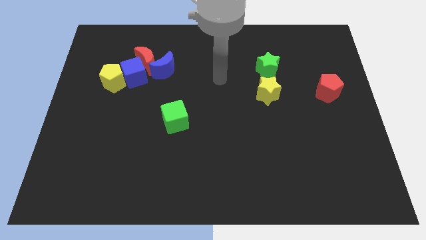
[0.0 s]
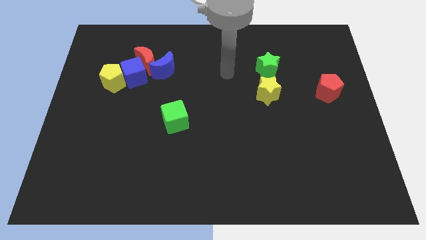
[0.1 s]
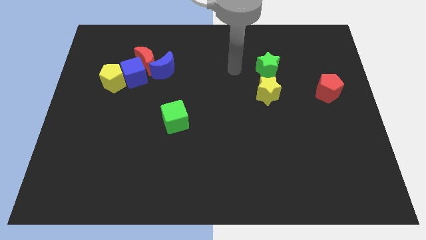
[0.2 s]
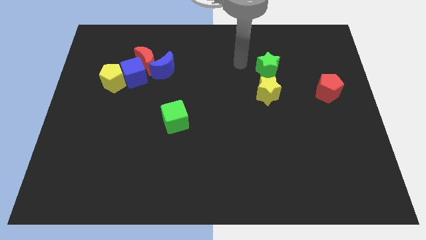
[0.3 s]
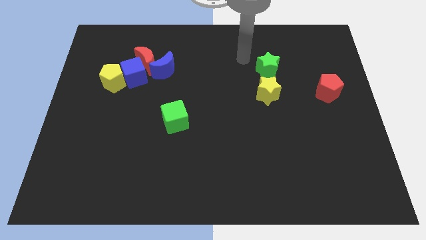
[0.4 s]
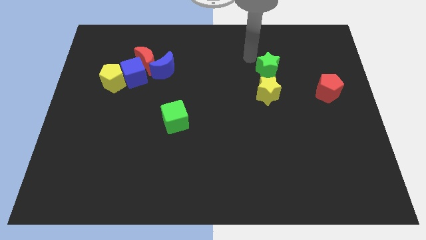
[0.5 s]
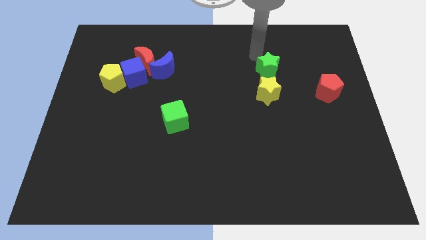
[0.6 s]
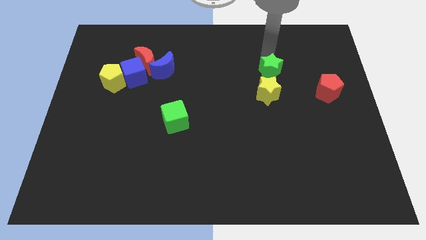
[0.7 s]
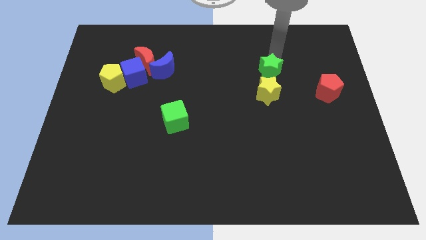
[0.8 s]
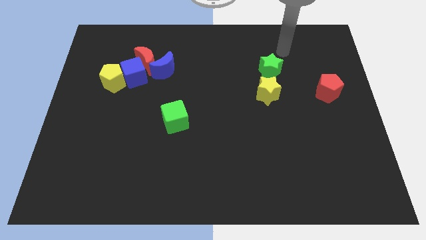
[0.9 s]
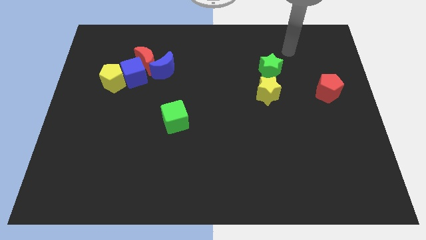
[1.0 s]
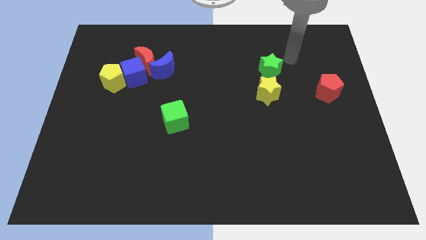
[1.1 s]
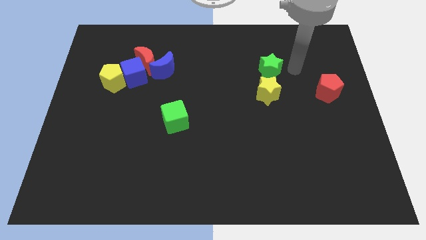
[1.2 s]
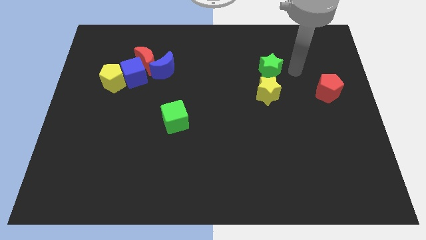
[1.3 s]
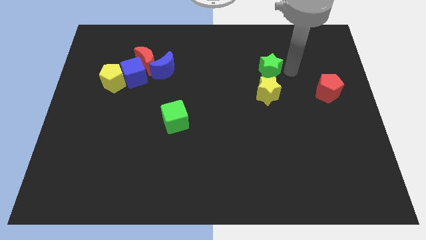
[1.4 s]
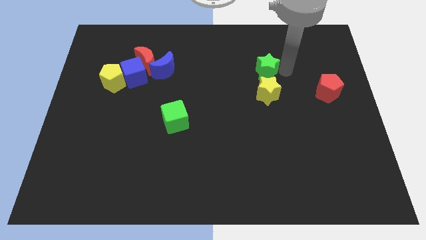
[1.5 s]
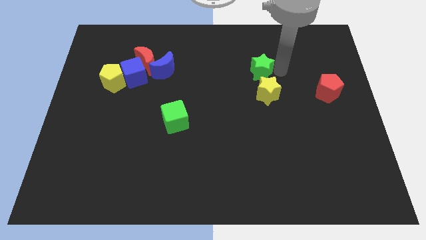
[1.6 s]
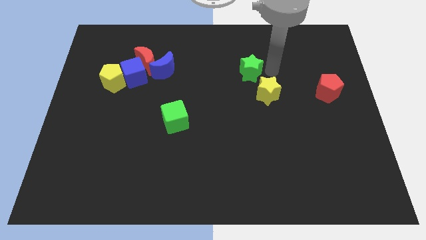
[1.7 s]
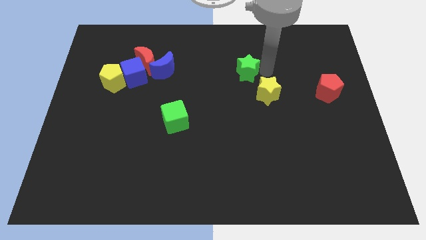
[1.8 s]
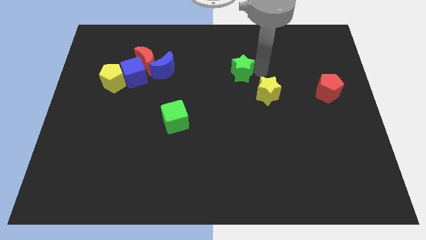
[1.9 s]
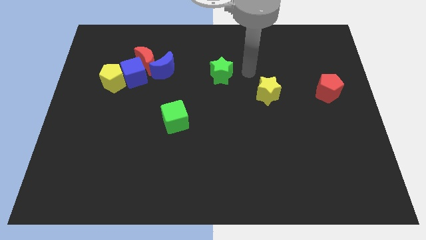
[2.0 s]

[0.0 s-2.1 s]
push the green star a little left

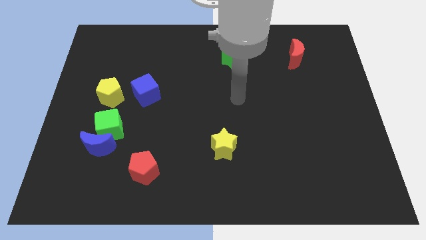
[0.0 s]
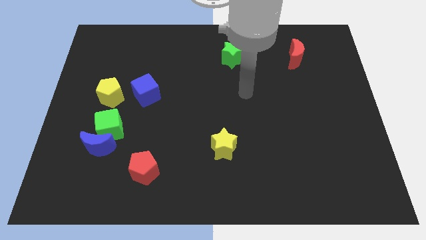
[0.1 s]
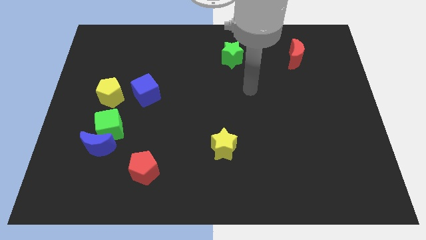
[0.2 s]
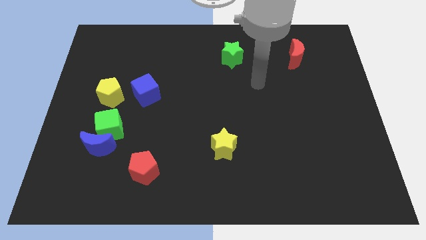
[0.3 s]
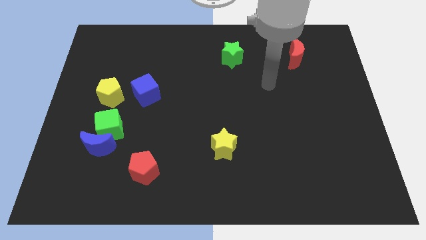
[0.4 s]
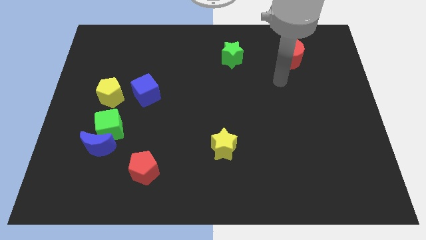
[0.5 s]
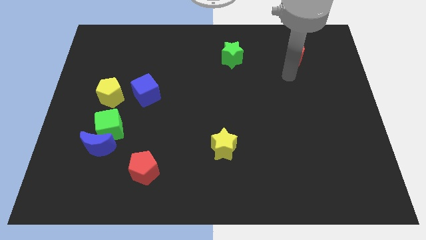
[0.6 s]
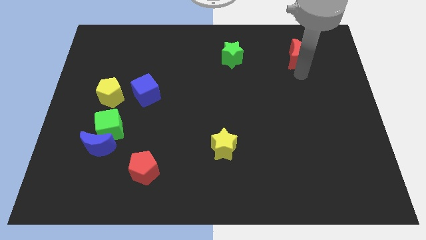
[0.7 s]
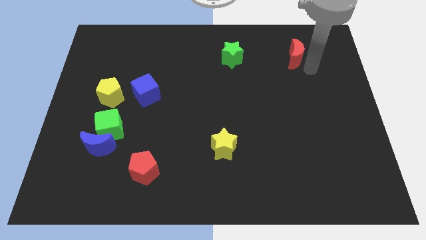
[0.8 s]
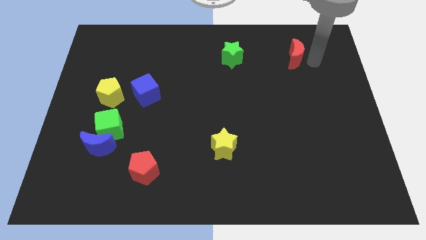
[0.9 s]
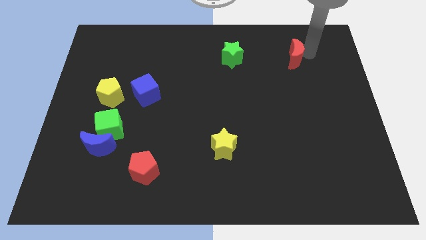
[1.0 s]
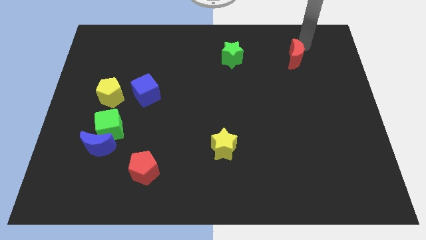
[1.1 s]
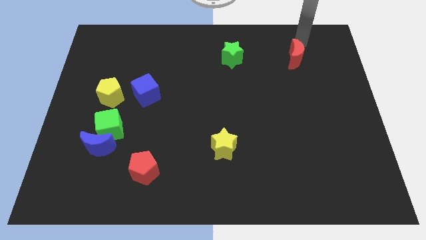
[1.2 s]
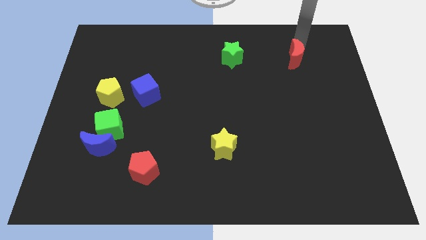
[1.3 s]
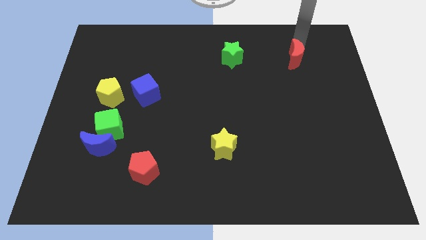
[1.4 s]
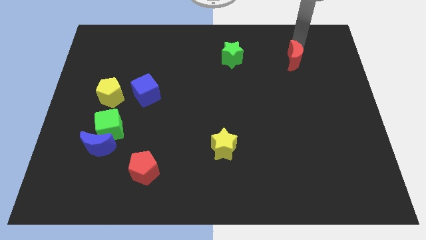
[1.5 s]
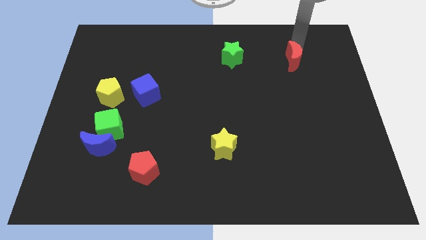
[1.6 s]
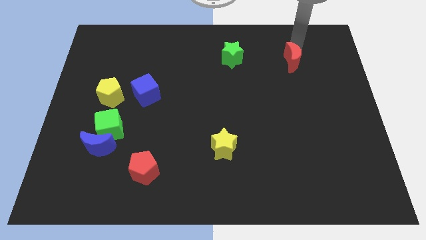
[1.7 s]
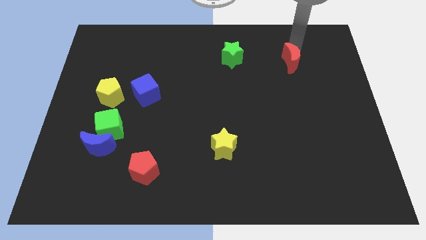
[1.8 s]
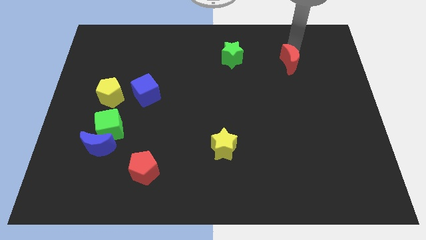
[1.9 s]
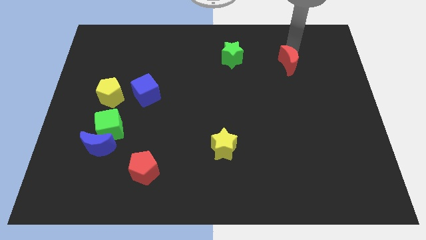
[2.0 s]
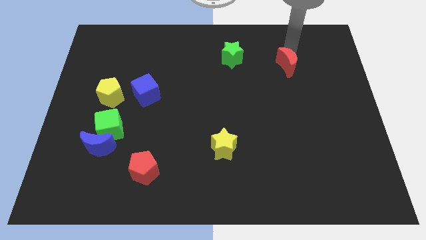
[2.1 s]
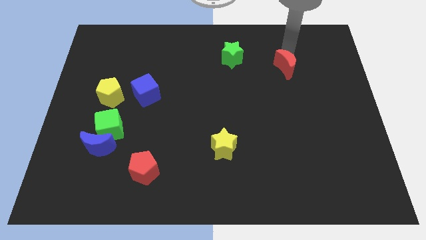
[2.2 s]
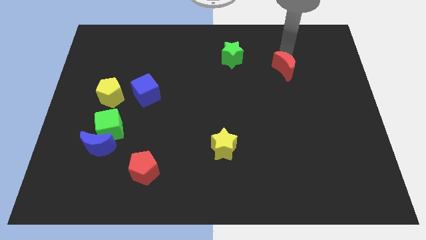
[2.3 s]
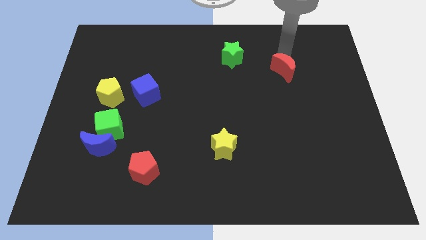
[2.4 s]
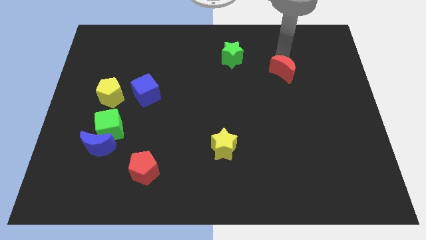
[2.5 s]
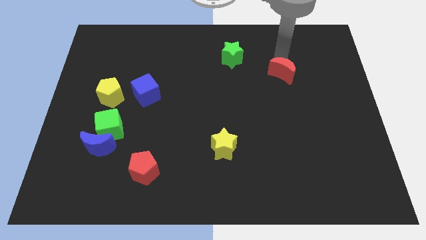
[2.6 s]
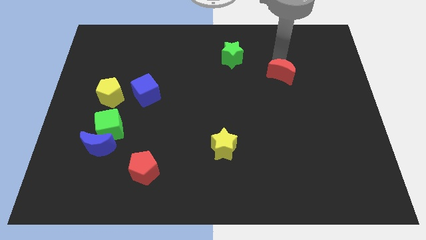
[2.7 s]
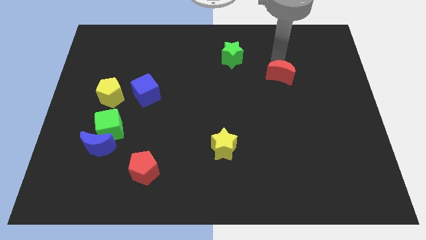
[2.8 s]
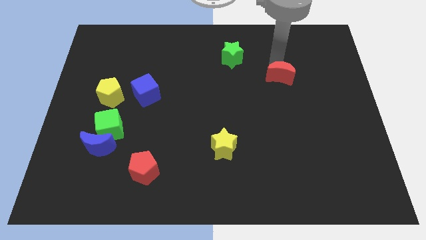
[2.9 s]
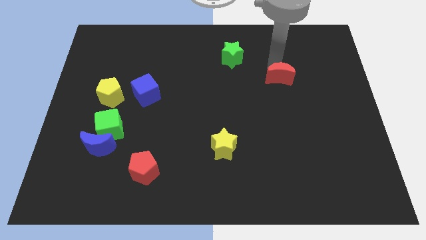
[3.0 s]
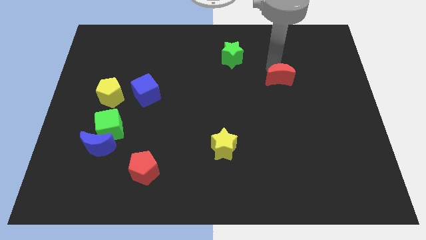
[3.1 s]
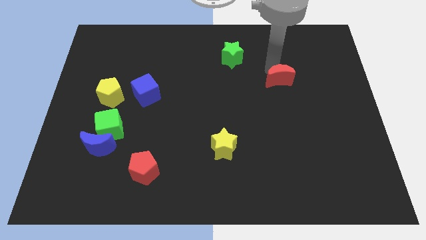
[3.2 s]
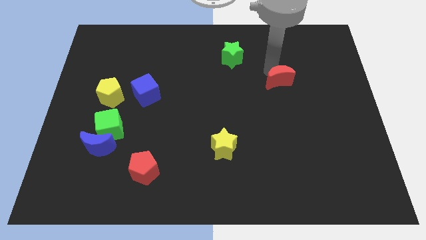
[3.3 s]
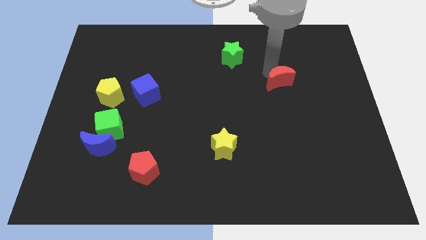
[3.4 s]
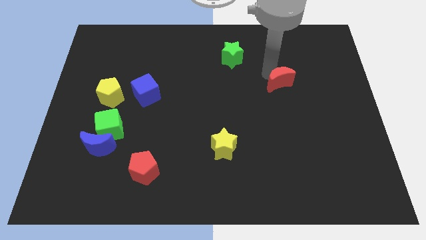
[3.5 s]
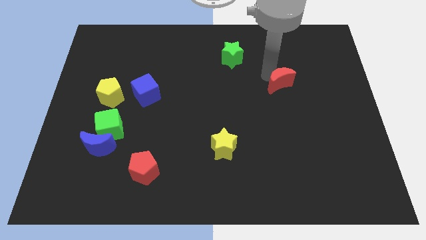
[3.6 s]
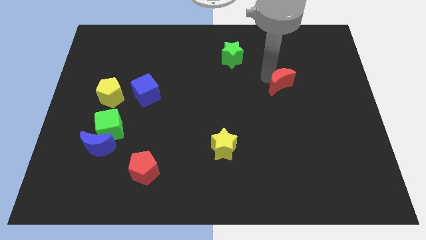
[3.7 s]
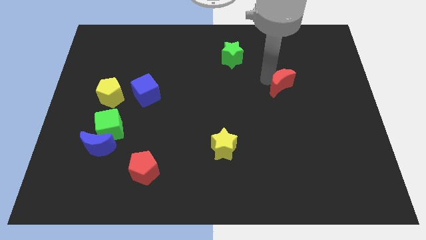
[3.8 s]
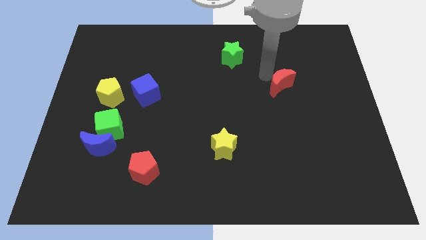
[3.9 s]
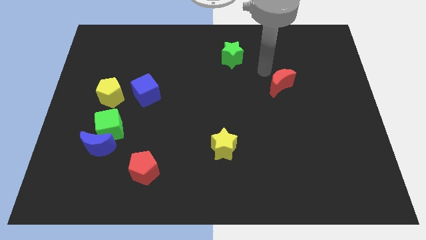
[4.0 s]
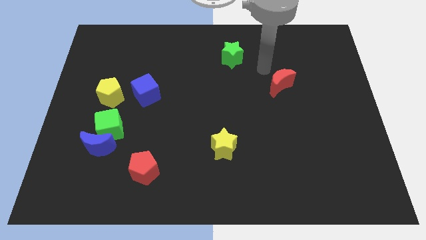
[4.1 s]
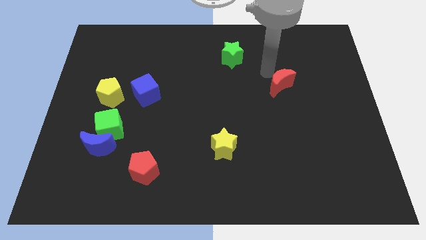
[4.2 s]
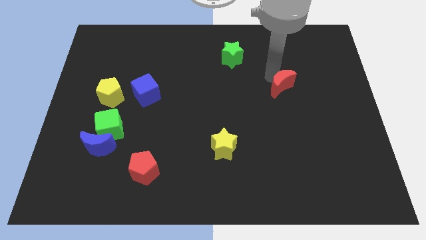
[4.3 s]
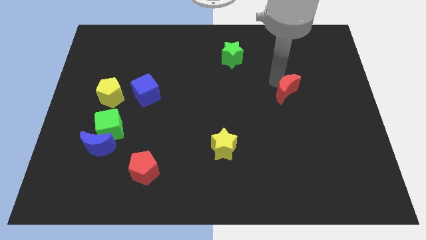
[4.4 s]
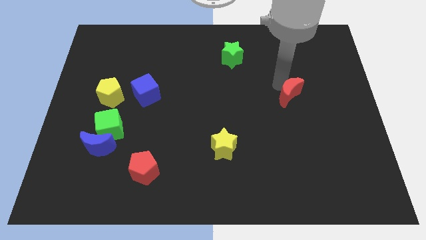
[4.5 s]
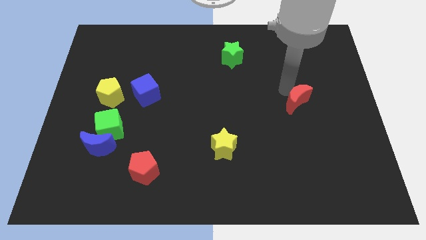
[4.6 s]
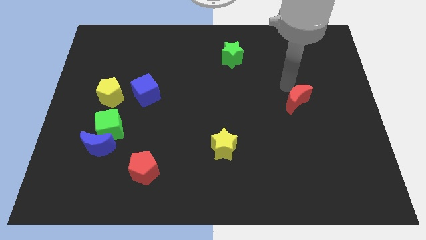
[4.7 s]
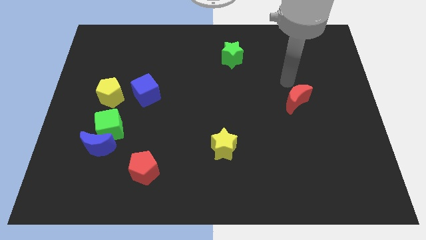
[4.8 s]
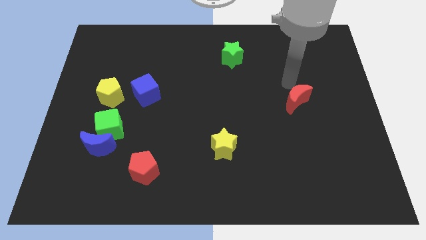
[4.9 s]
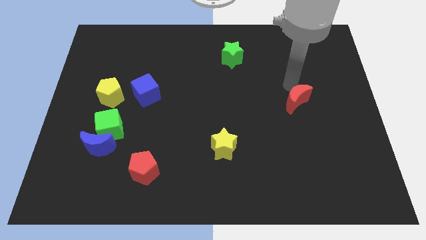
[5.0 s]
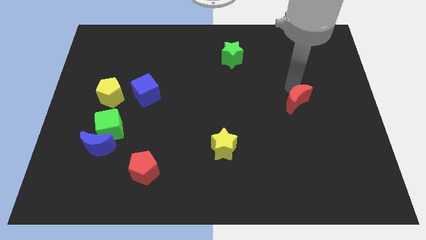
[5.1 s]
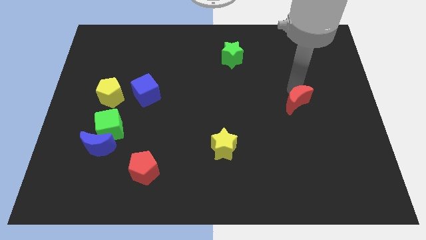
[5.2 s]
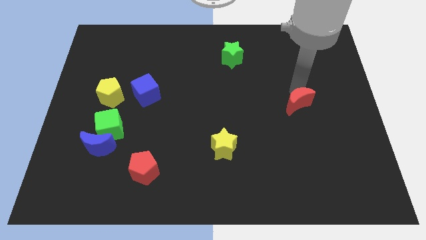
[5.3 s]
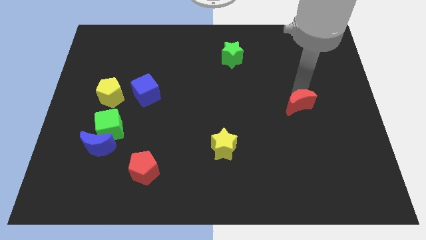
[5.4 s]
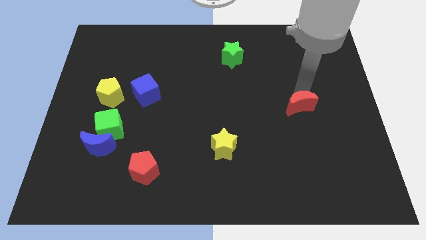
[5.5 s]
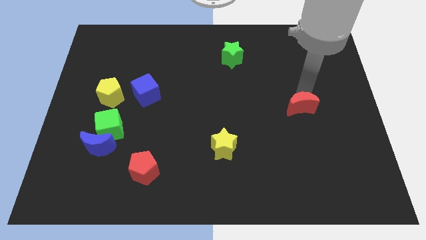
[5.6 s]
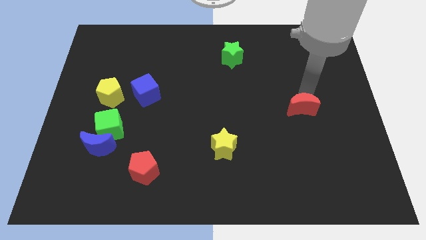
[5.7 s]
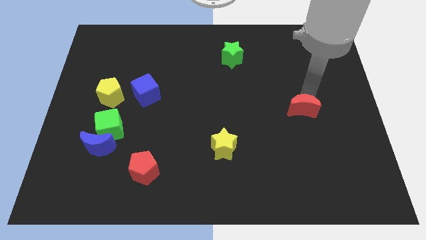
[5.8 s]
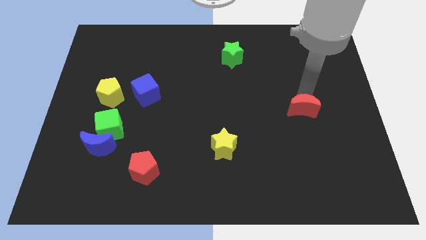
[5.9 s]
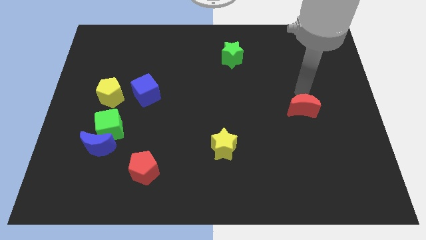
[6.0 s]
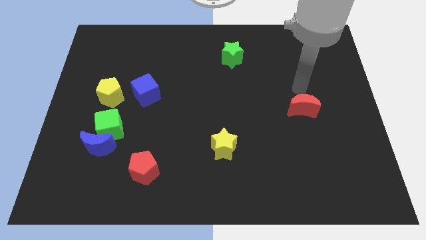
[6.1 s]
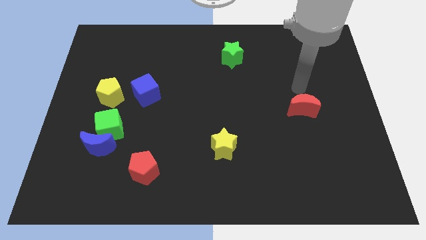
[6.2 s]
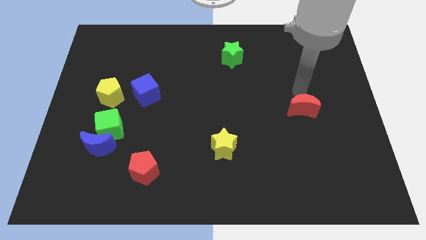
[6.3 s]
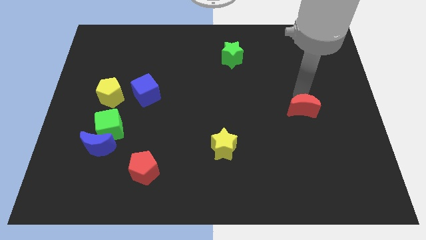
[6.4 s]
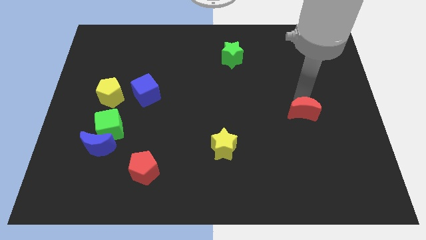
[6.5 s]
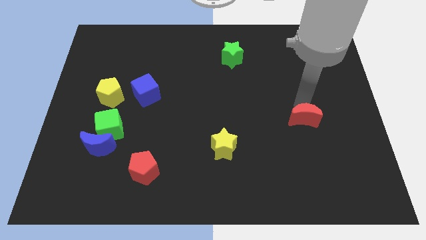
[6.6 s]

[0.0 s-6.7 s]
move the red moon downwards
